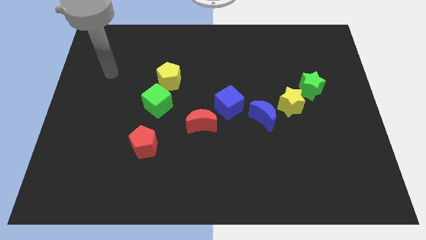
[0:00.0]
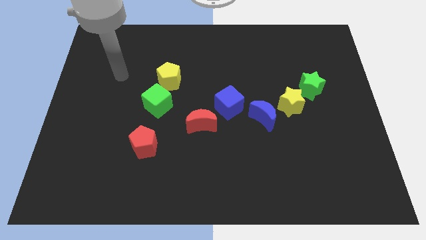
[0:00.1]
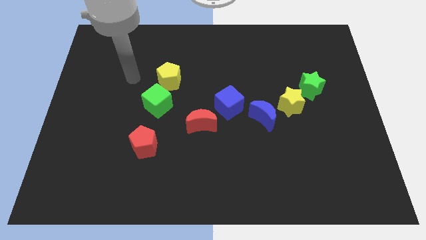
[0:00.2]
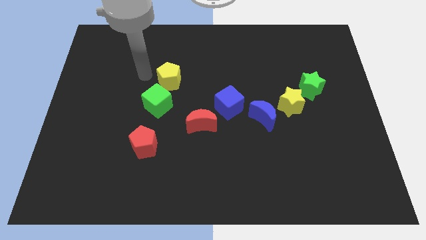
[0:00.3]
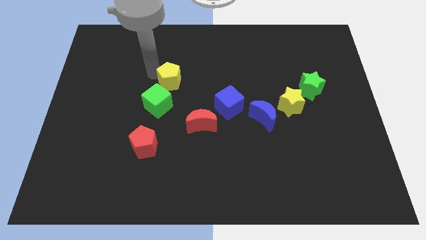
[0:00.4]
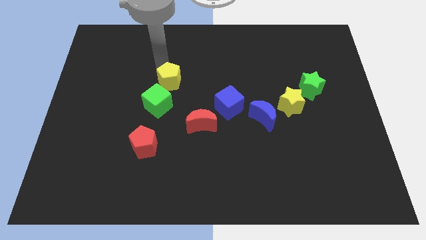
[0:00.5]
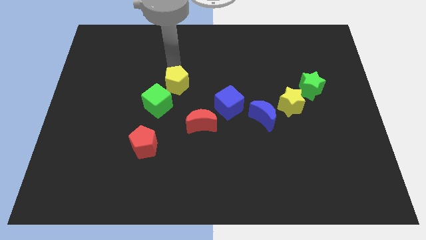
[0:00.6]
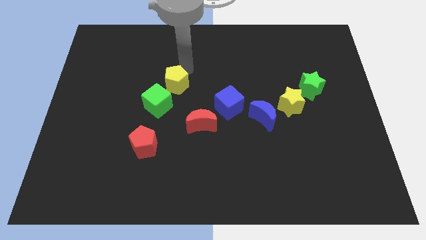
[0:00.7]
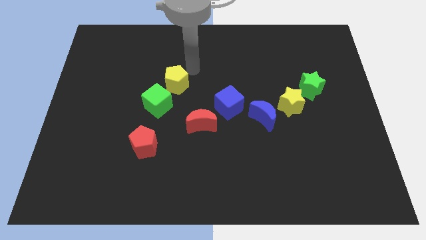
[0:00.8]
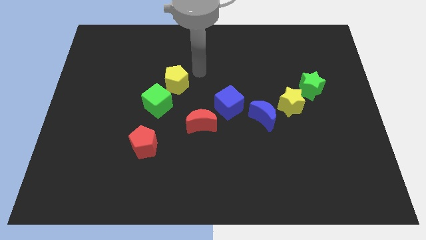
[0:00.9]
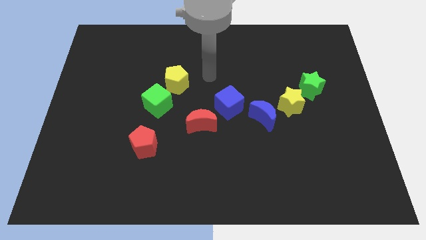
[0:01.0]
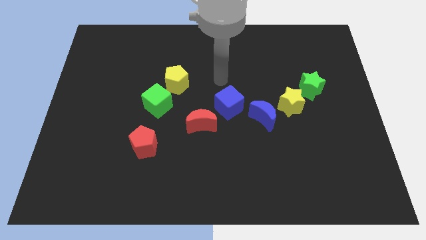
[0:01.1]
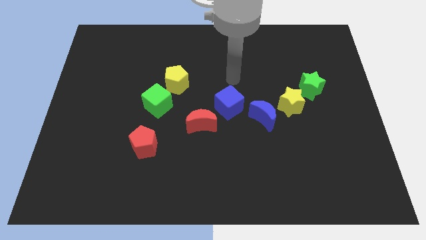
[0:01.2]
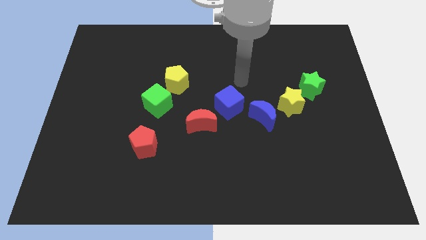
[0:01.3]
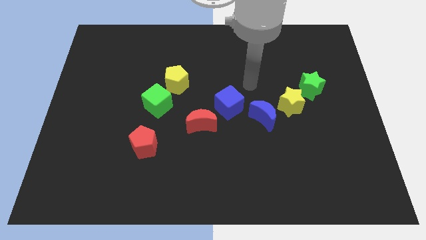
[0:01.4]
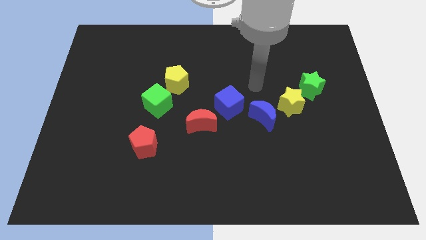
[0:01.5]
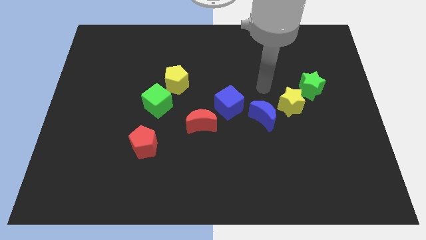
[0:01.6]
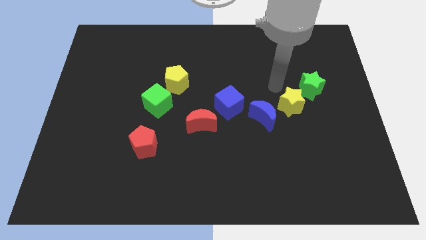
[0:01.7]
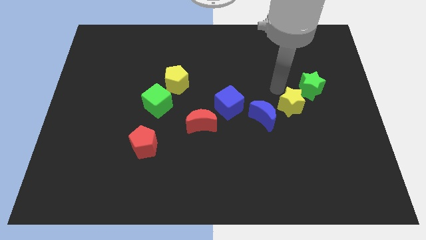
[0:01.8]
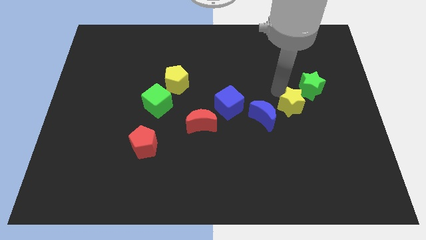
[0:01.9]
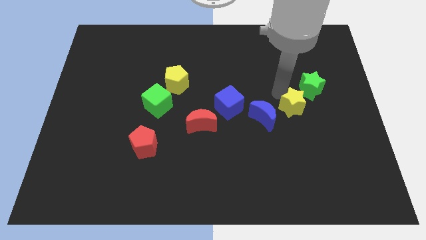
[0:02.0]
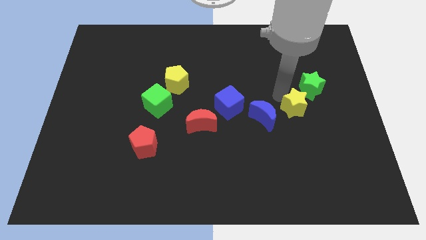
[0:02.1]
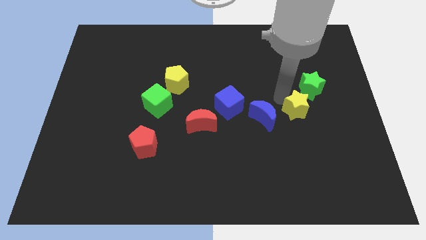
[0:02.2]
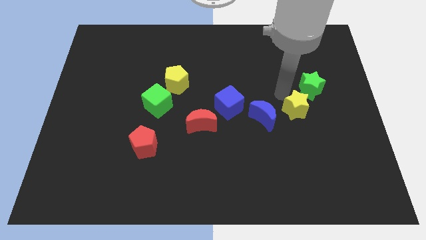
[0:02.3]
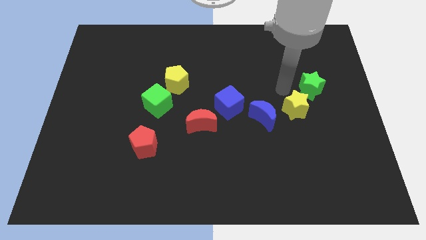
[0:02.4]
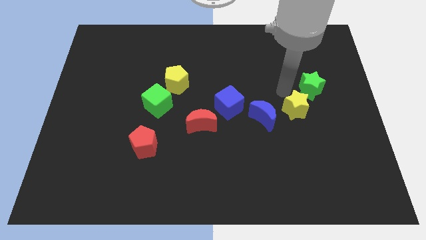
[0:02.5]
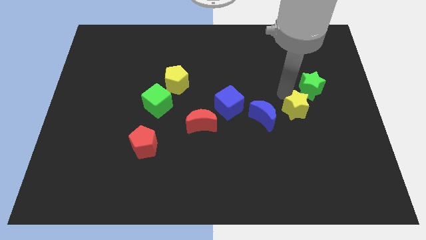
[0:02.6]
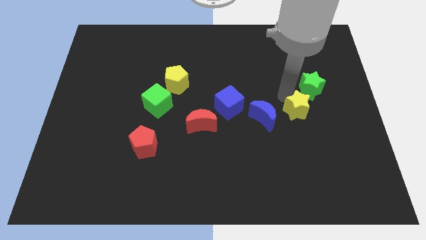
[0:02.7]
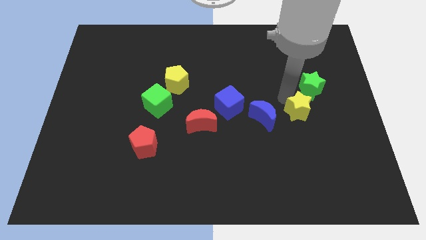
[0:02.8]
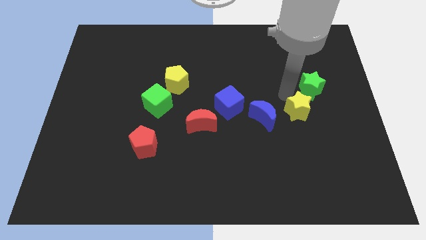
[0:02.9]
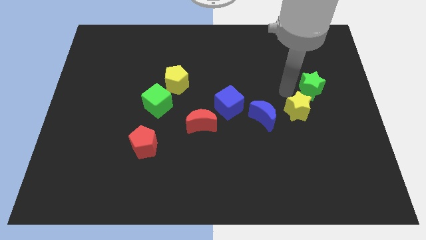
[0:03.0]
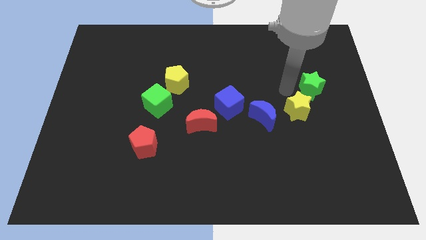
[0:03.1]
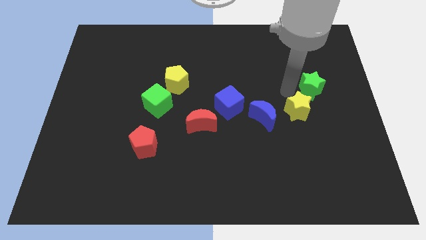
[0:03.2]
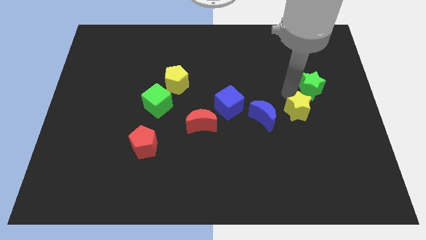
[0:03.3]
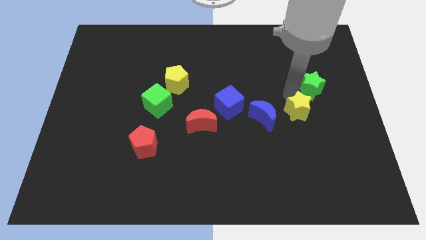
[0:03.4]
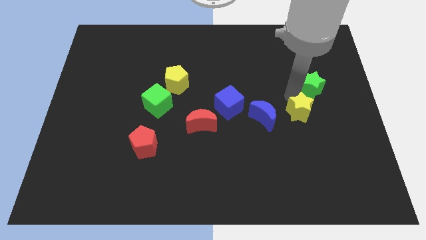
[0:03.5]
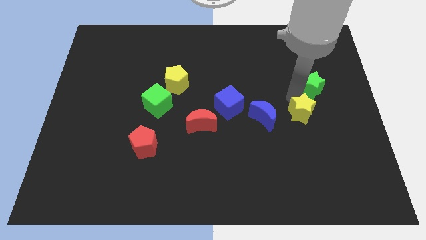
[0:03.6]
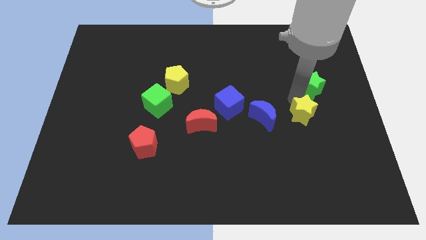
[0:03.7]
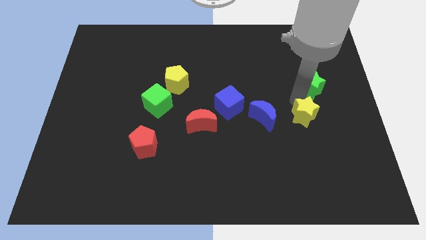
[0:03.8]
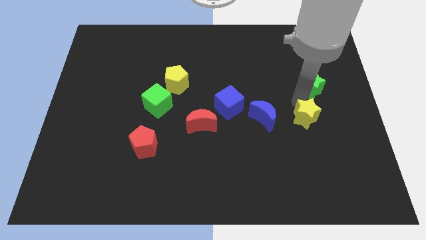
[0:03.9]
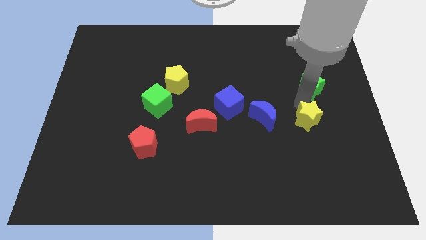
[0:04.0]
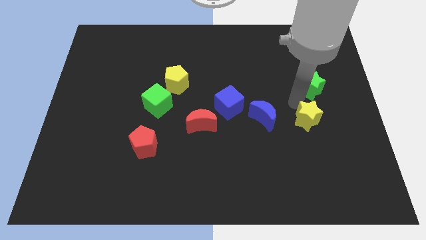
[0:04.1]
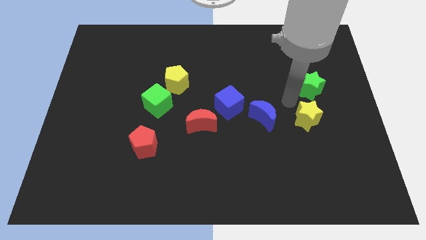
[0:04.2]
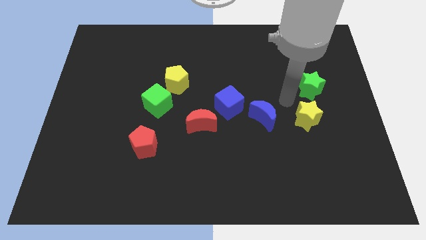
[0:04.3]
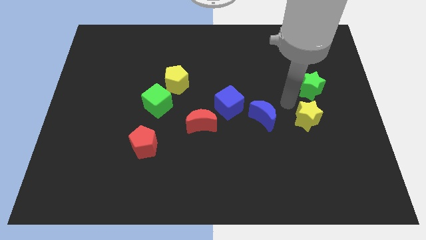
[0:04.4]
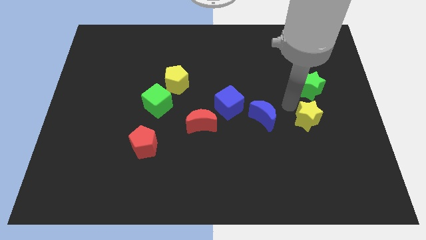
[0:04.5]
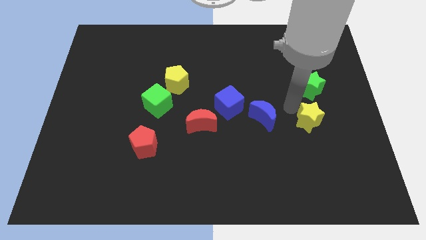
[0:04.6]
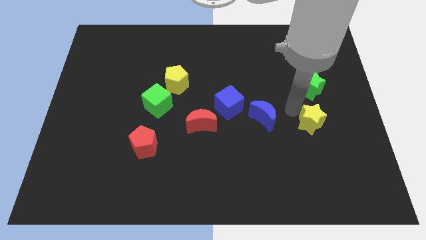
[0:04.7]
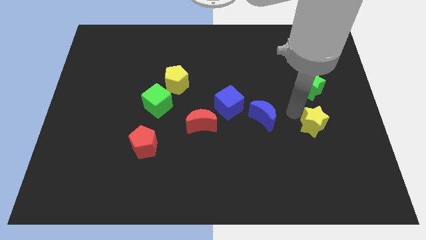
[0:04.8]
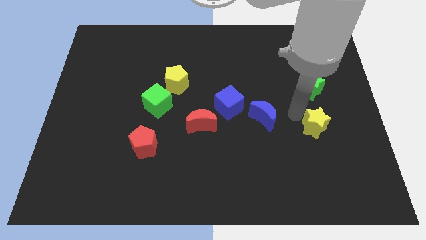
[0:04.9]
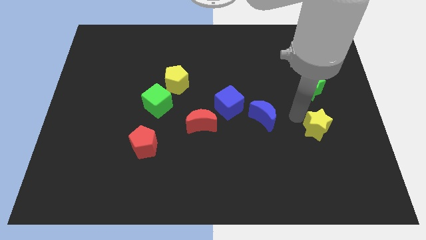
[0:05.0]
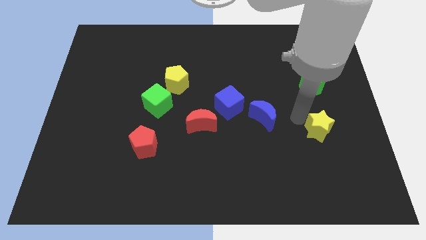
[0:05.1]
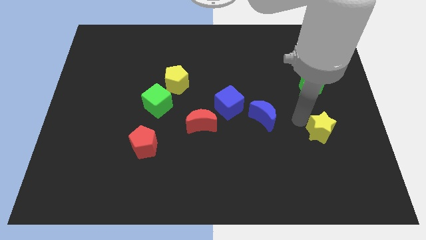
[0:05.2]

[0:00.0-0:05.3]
move the yellow star away from the blue moon and green star

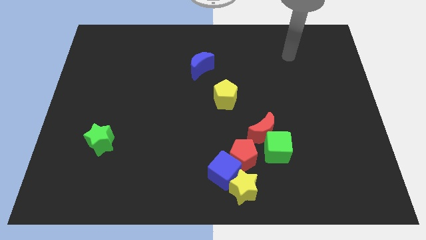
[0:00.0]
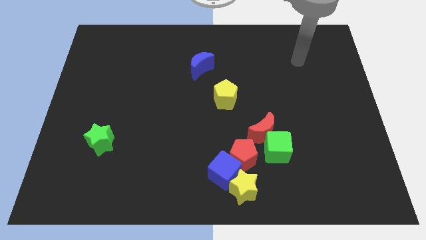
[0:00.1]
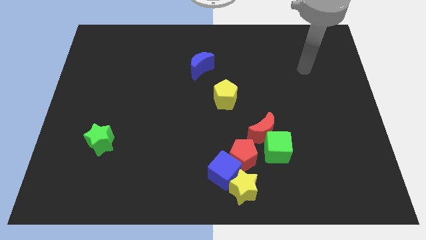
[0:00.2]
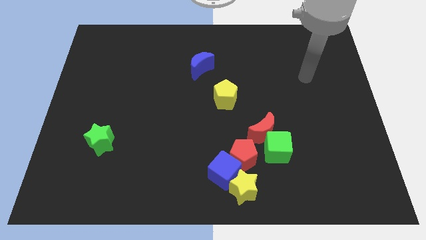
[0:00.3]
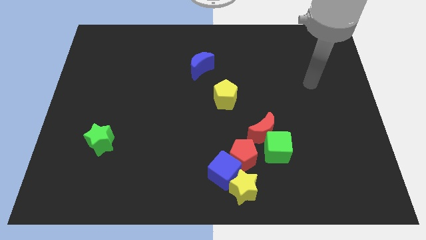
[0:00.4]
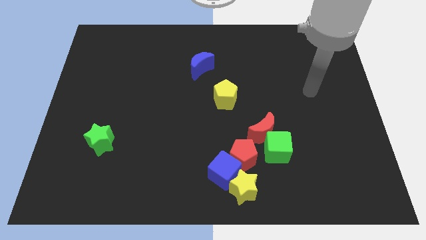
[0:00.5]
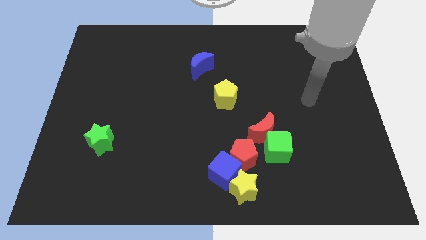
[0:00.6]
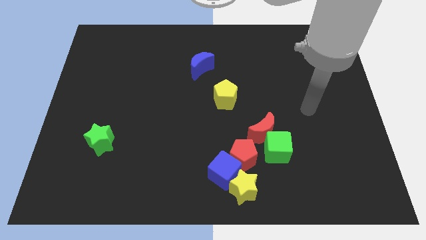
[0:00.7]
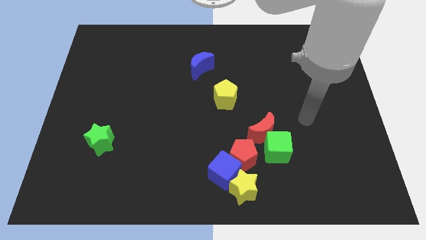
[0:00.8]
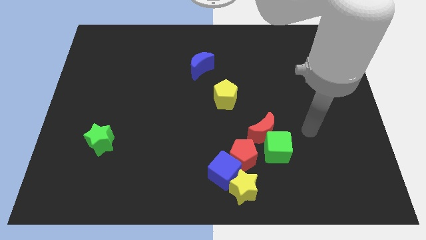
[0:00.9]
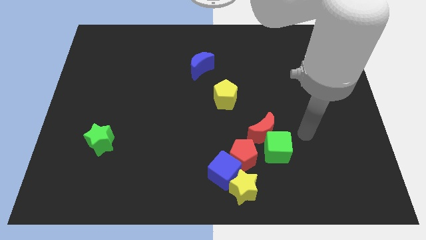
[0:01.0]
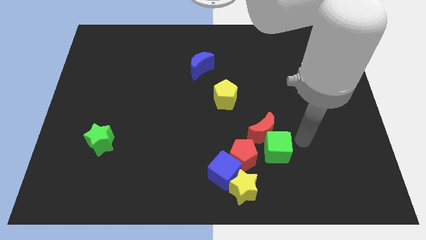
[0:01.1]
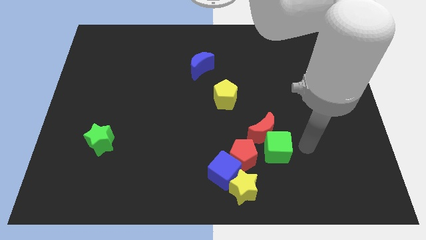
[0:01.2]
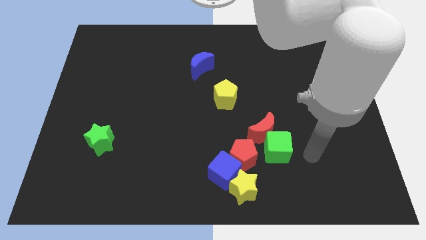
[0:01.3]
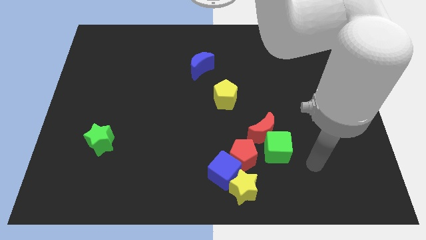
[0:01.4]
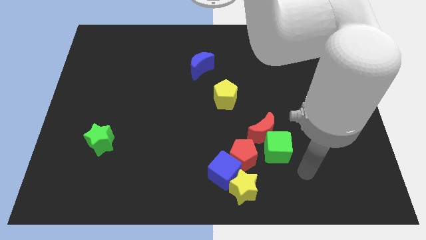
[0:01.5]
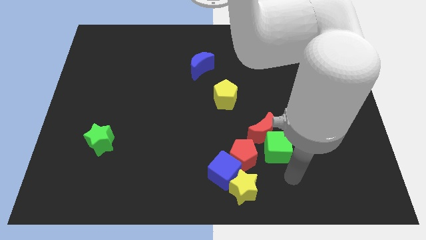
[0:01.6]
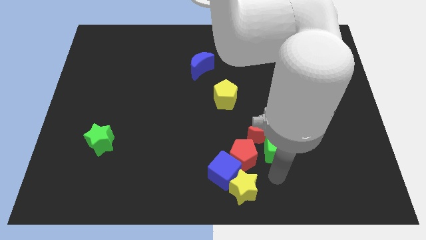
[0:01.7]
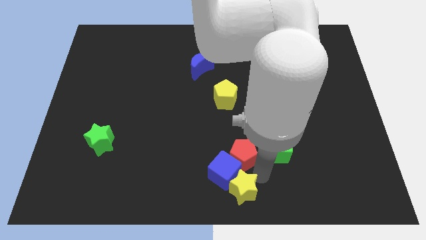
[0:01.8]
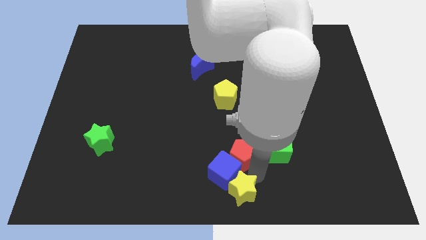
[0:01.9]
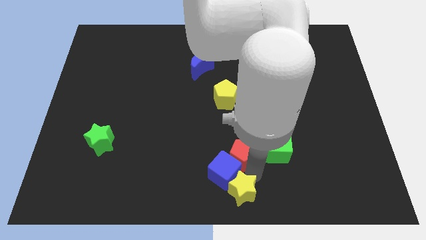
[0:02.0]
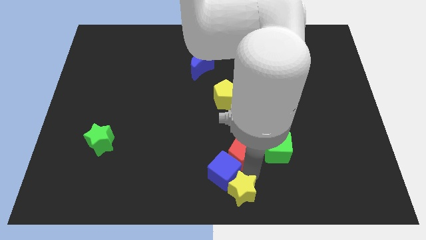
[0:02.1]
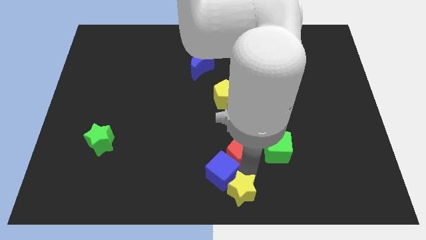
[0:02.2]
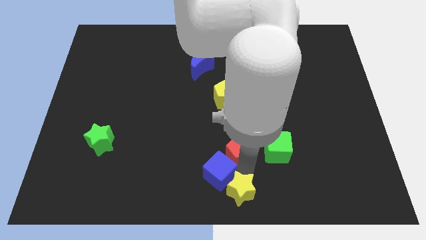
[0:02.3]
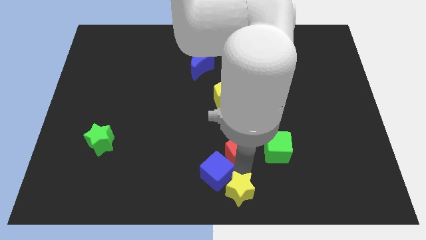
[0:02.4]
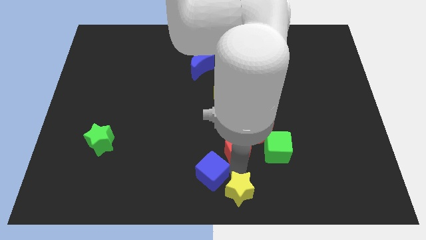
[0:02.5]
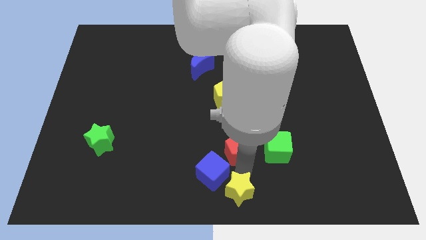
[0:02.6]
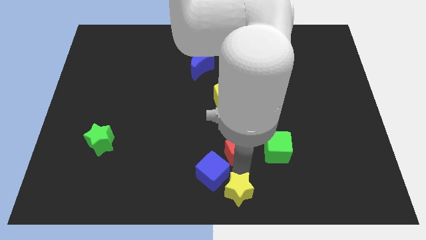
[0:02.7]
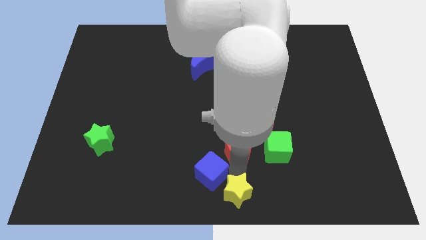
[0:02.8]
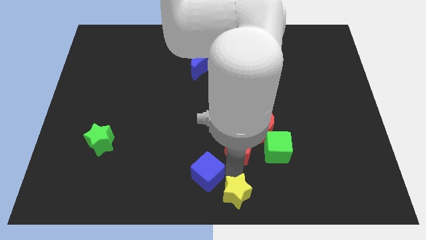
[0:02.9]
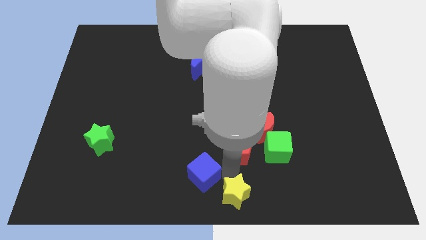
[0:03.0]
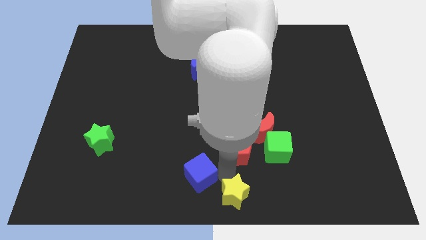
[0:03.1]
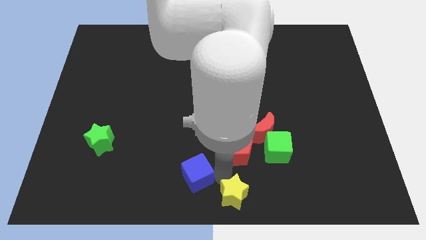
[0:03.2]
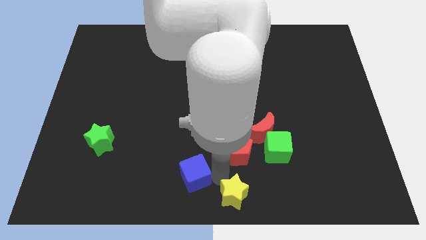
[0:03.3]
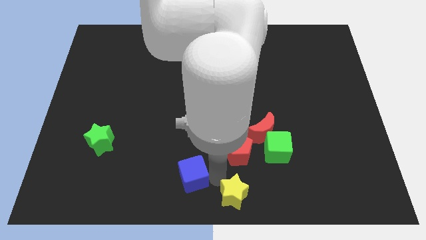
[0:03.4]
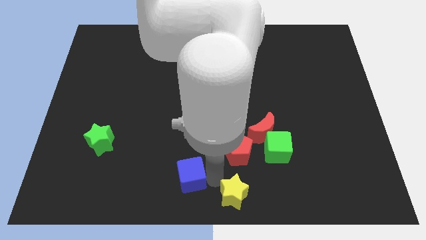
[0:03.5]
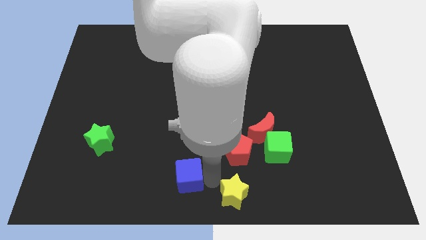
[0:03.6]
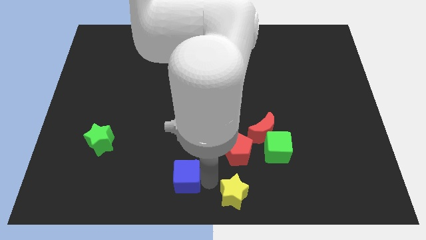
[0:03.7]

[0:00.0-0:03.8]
move the blue cube away from the red pentagon and yellow star

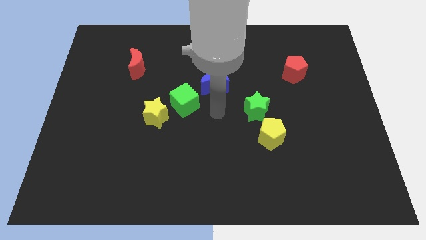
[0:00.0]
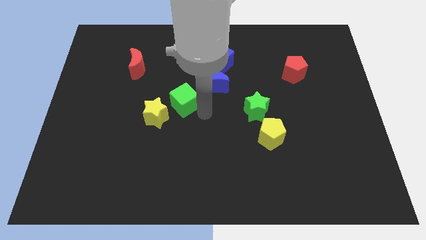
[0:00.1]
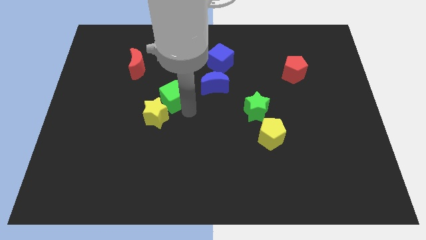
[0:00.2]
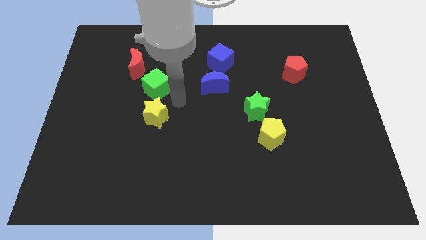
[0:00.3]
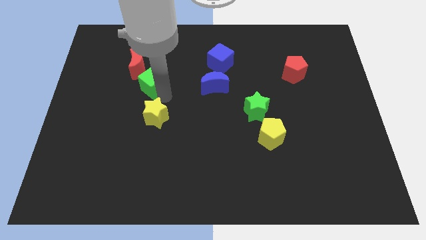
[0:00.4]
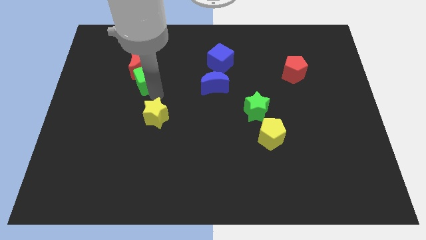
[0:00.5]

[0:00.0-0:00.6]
move the yellow star away from the green cube
